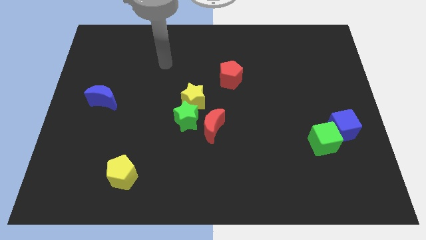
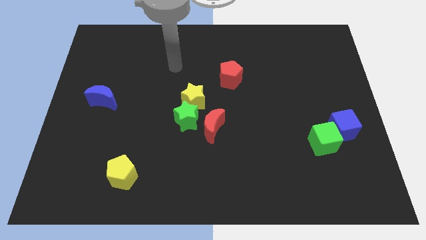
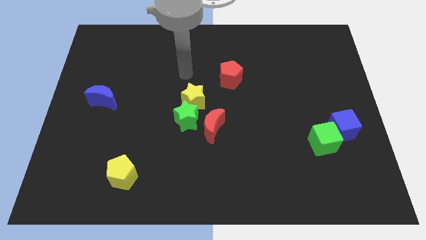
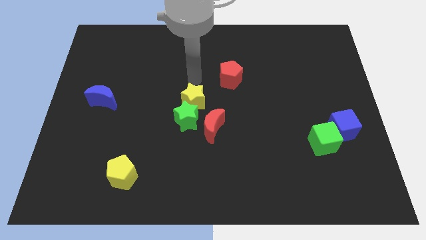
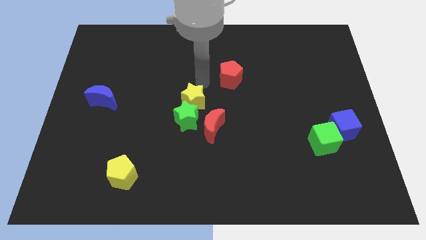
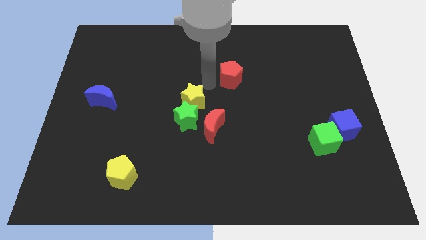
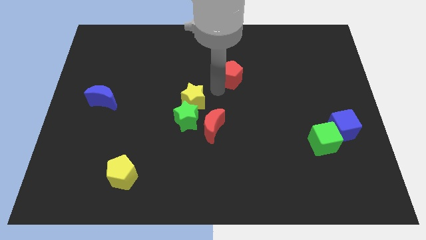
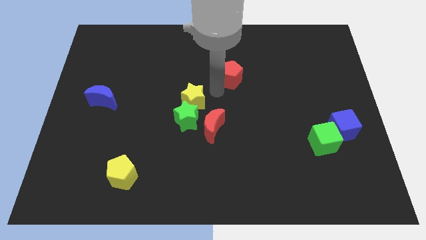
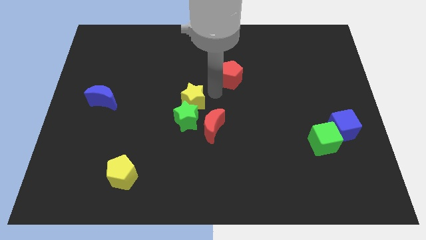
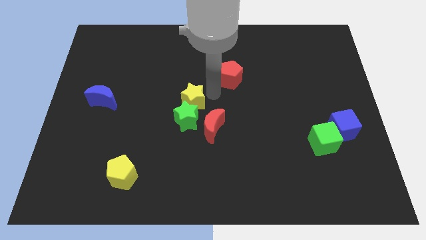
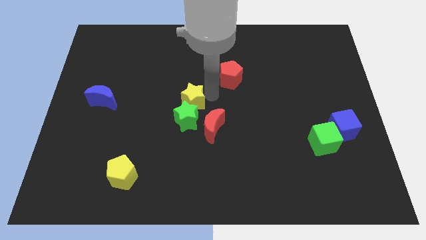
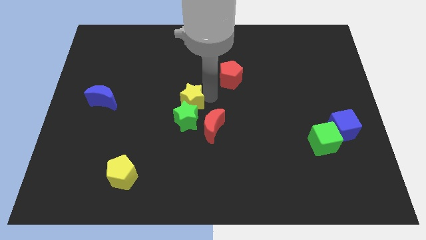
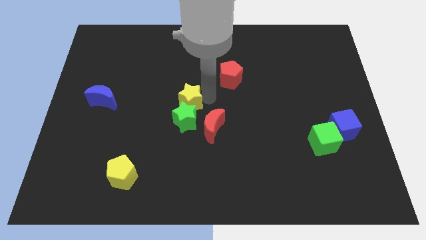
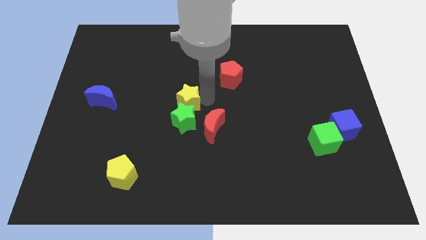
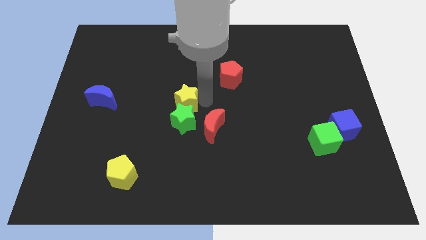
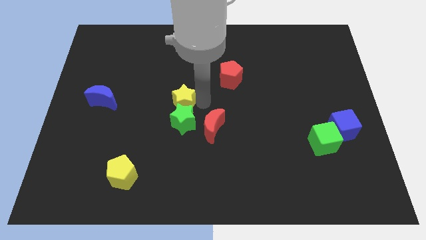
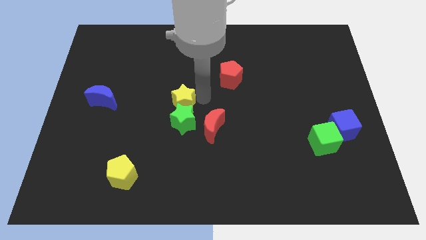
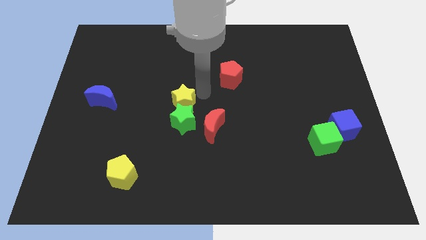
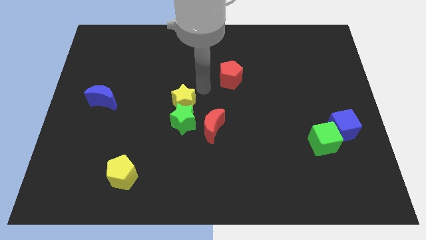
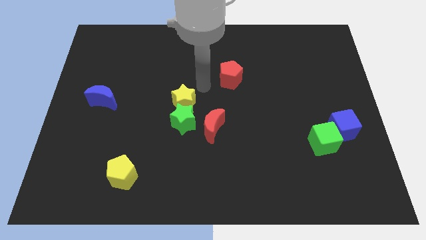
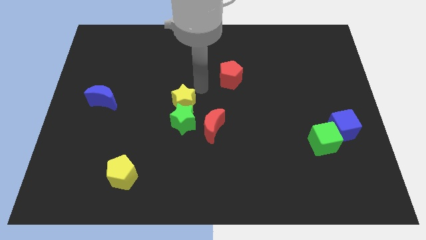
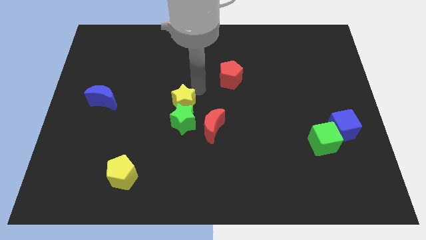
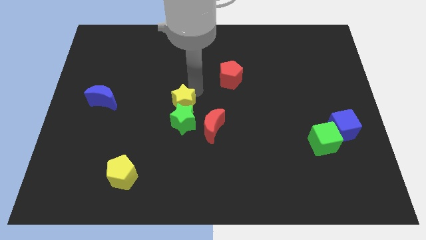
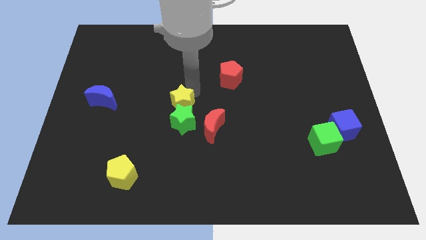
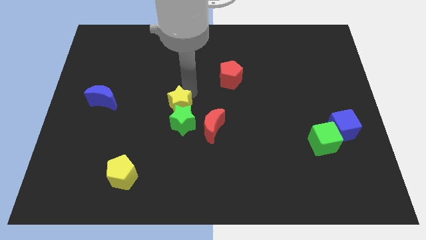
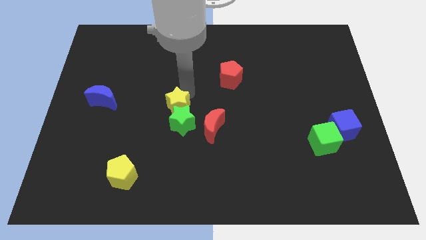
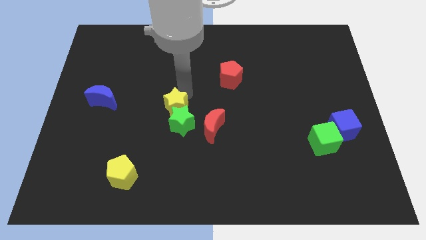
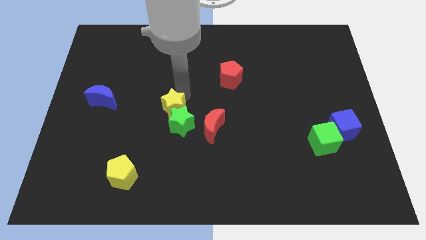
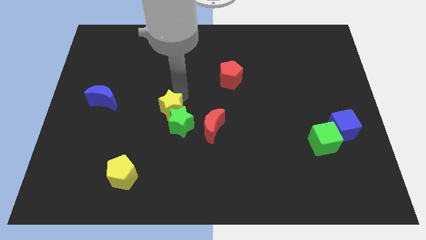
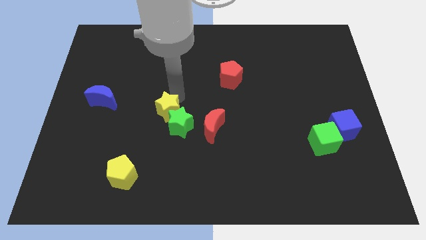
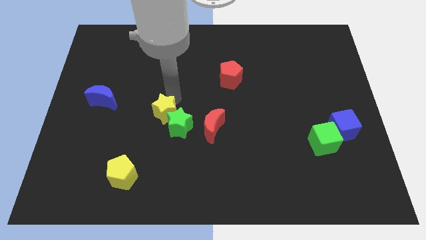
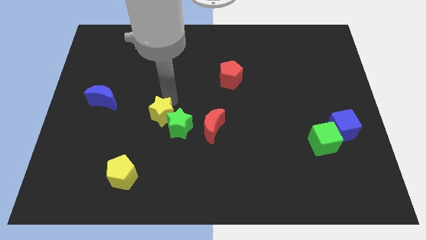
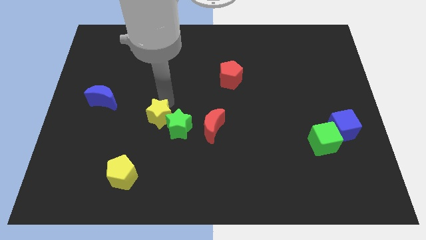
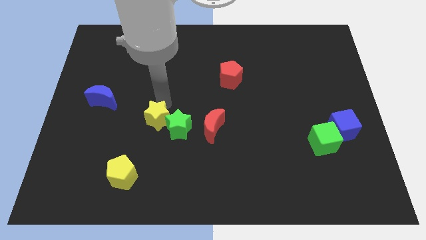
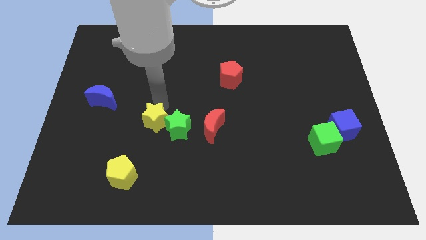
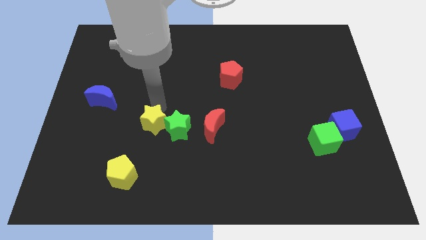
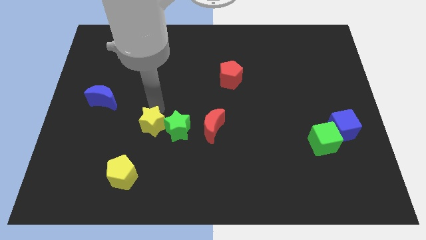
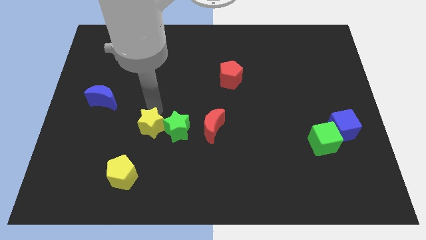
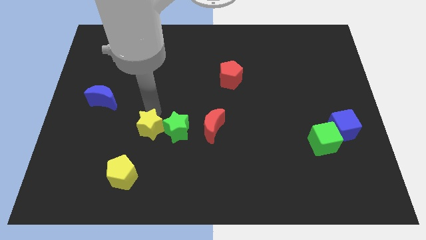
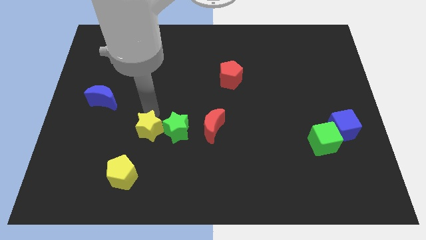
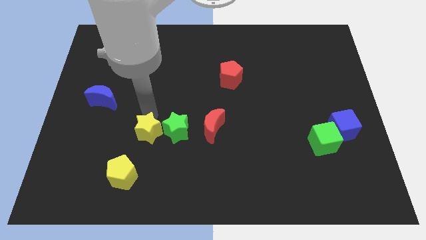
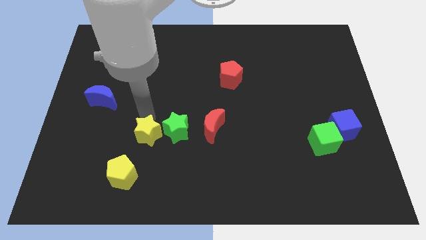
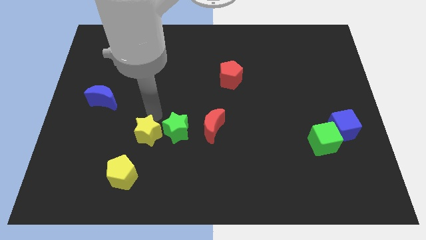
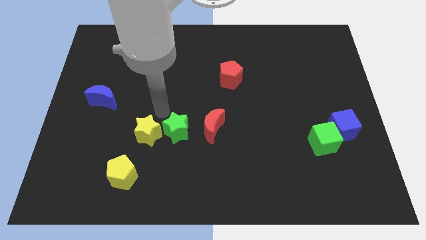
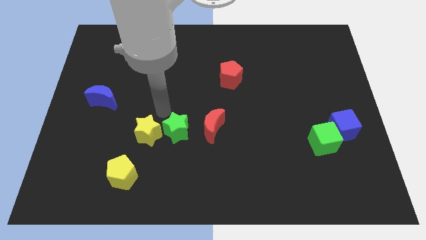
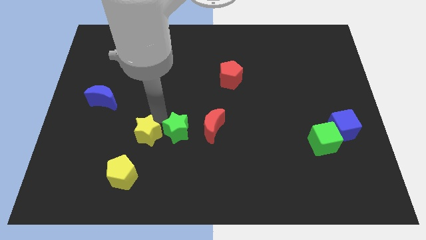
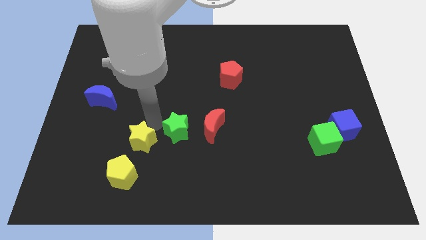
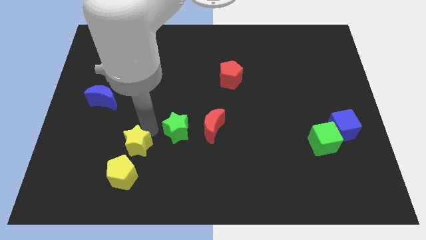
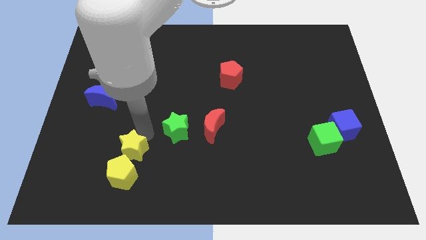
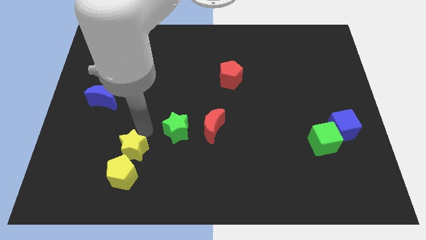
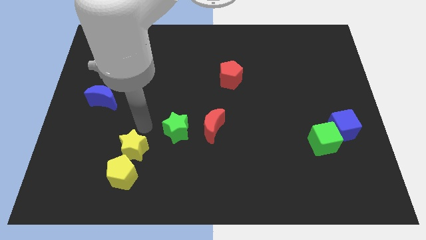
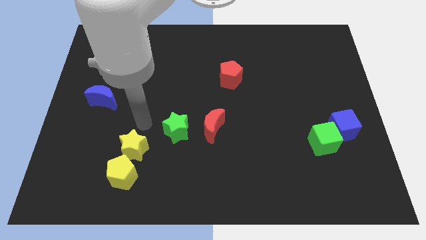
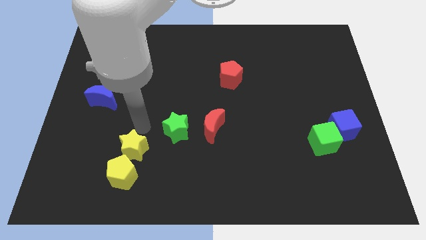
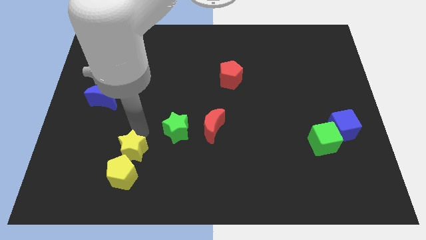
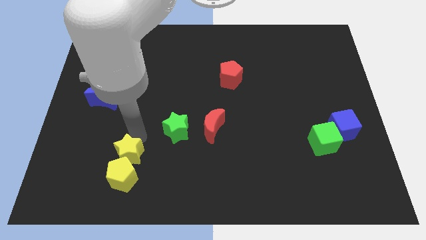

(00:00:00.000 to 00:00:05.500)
put the yellow star next to the yellow pentagon

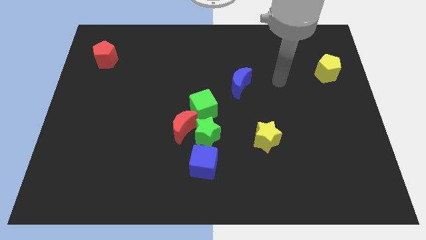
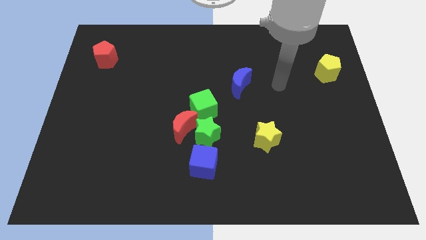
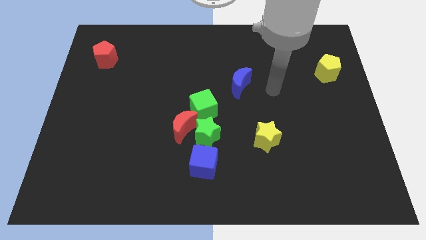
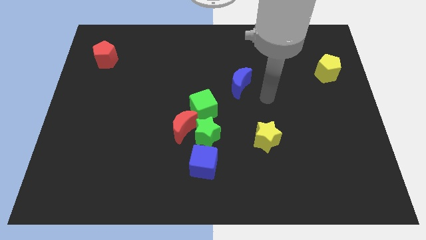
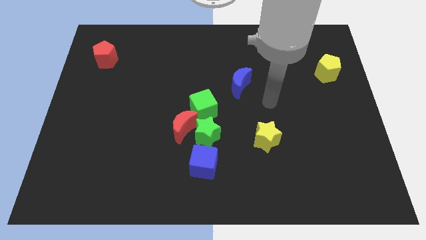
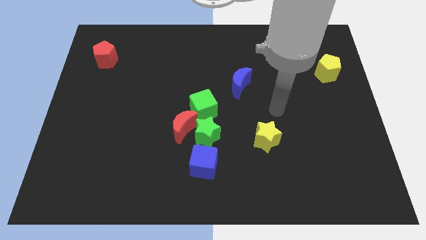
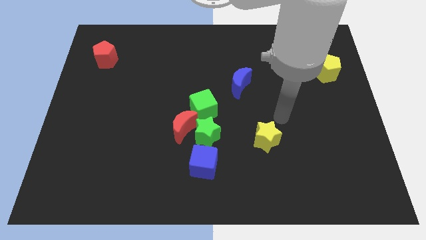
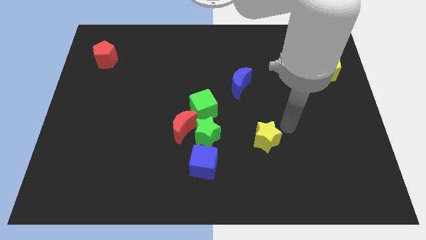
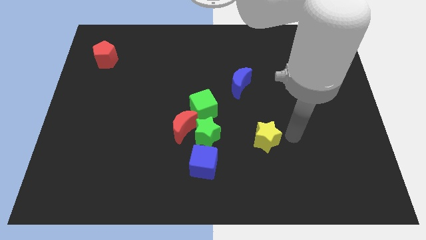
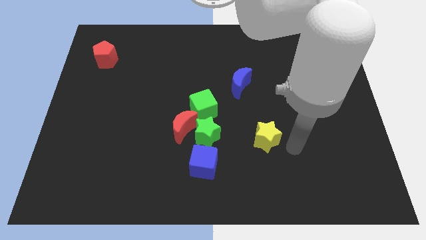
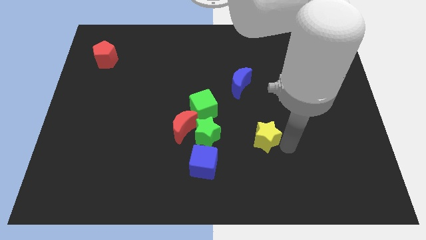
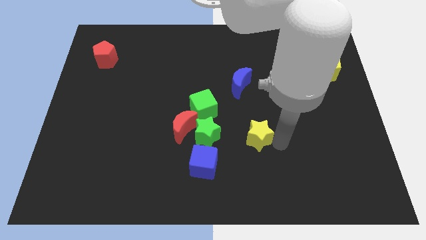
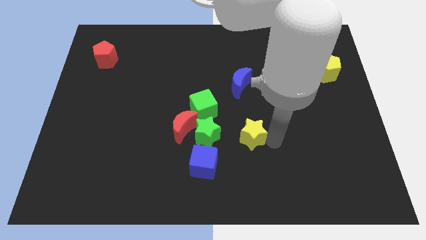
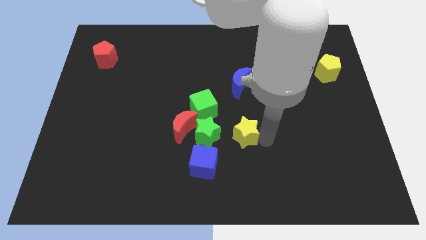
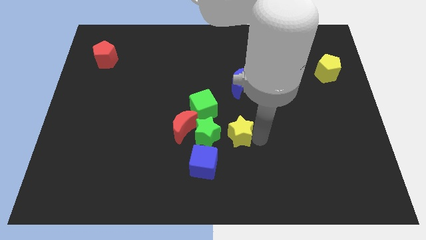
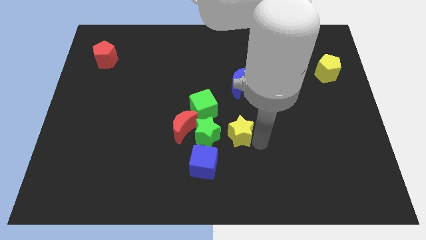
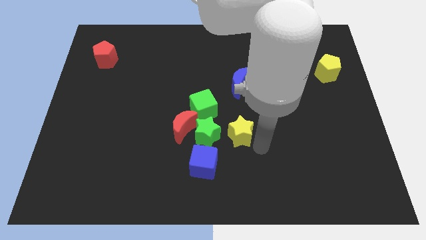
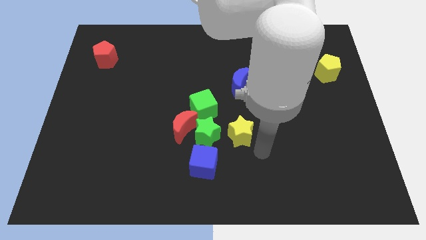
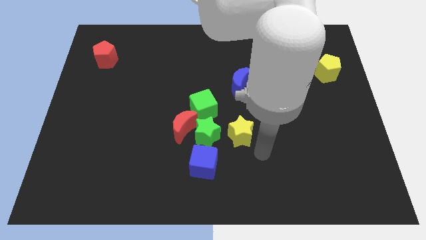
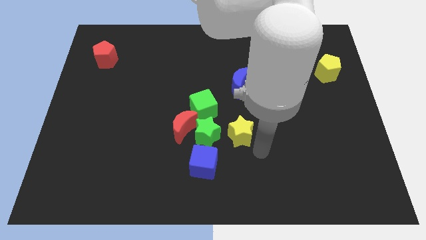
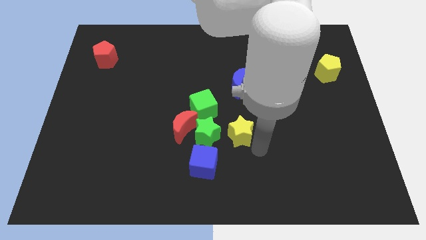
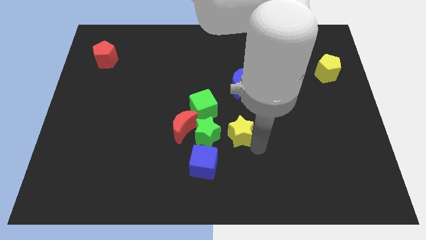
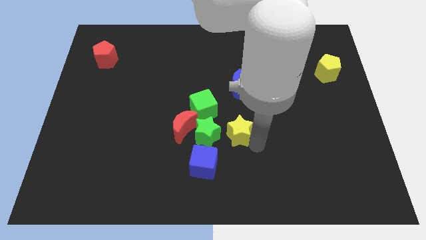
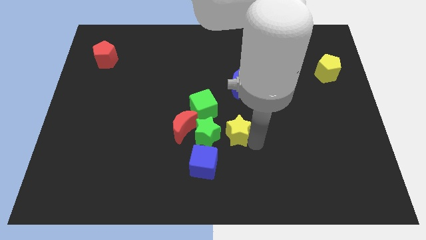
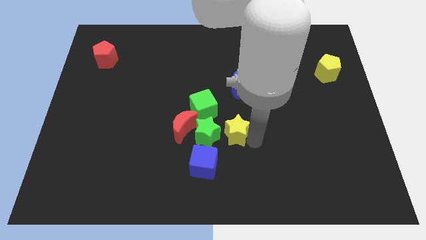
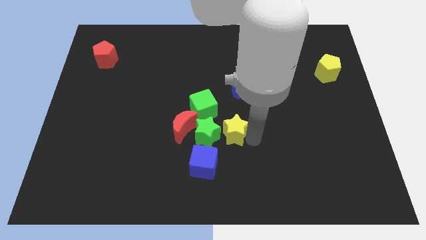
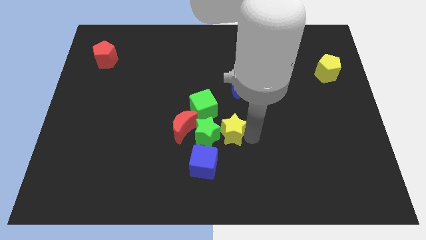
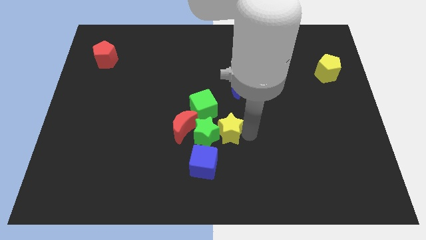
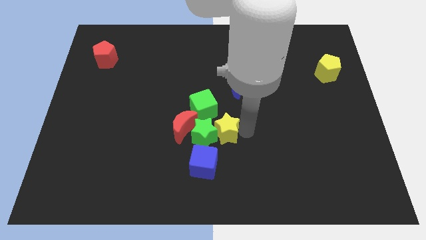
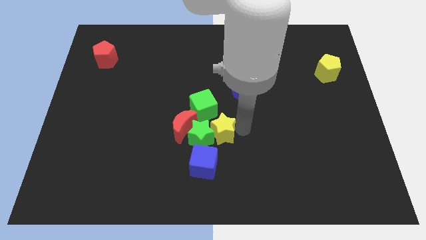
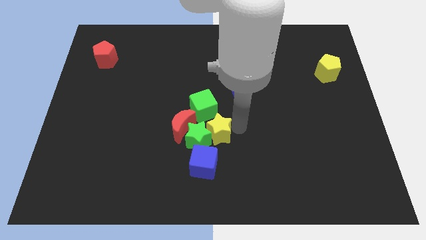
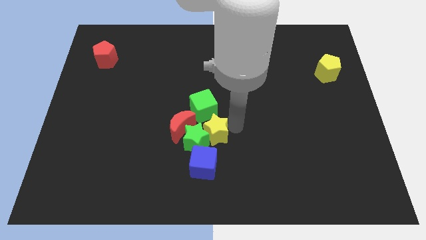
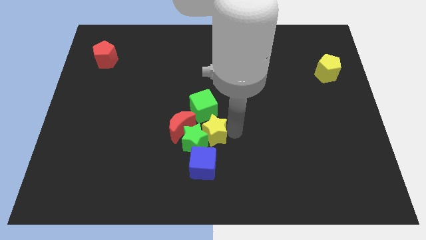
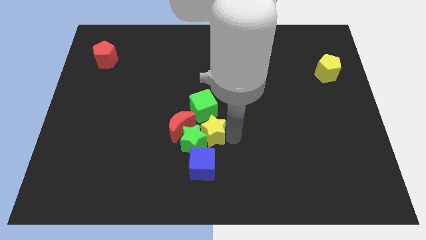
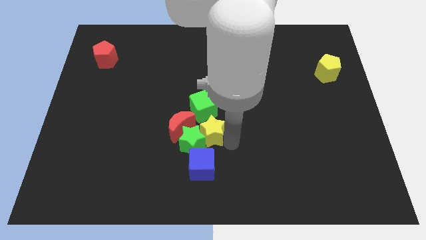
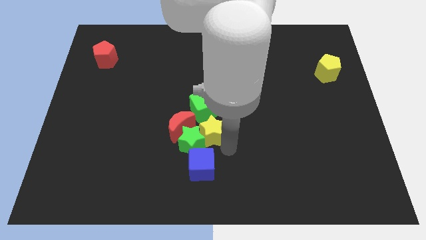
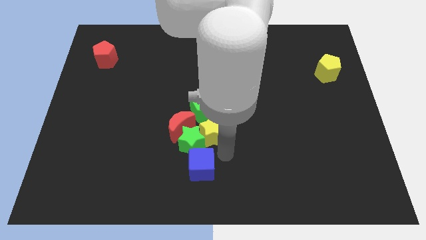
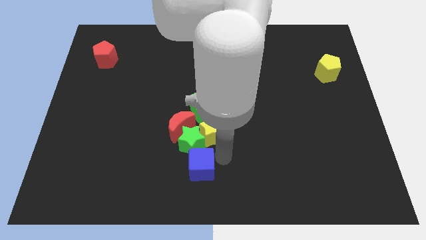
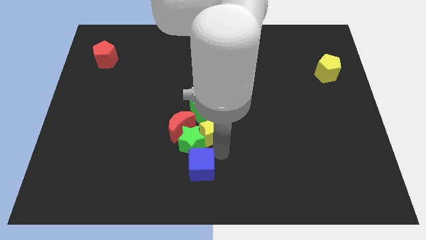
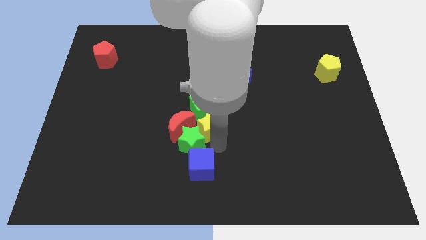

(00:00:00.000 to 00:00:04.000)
put the yellow star to the green cube
